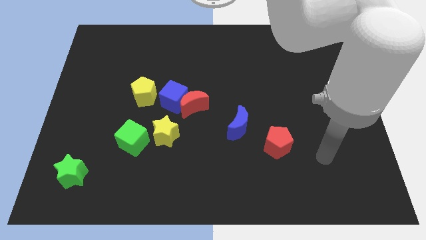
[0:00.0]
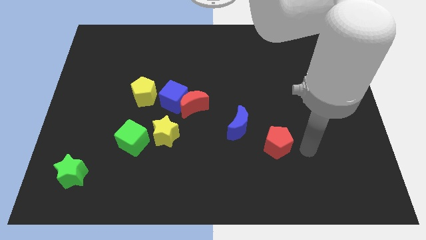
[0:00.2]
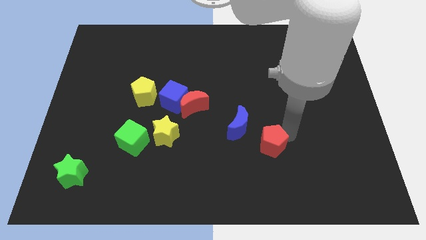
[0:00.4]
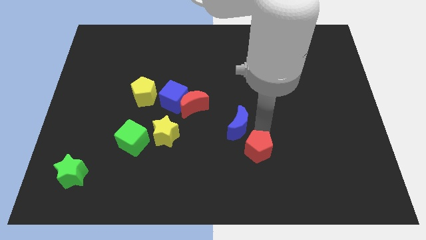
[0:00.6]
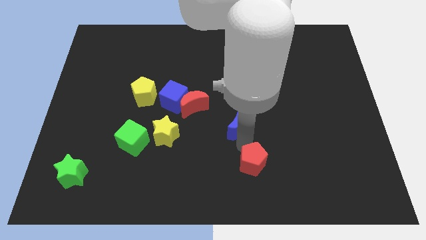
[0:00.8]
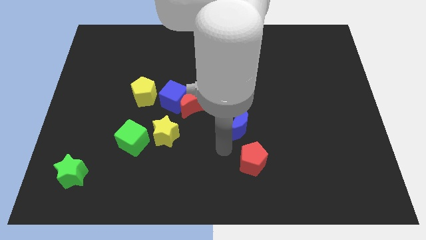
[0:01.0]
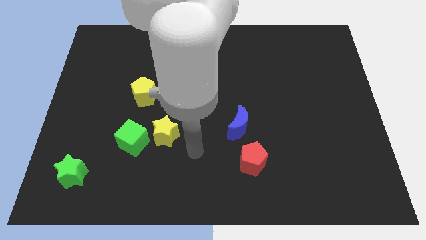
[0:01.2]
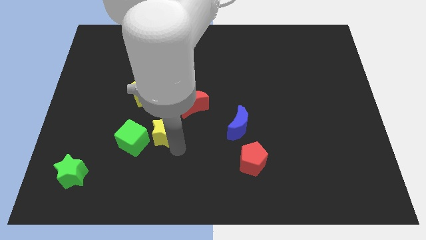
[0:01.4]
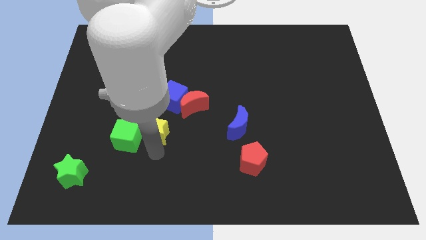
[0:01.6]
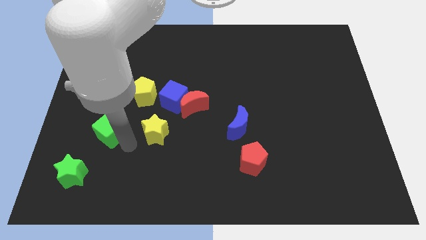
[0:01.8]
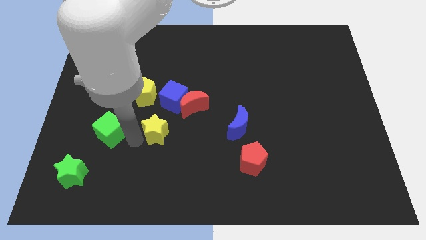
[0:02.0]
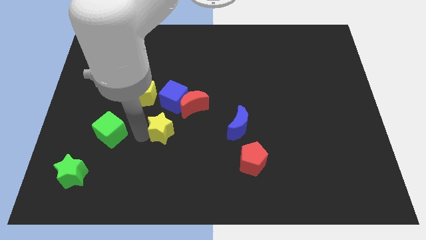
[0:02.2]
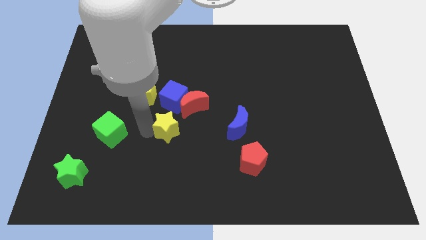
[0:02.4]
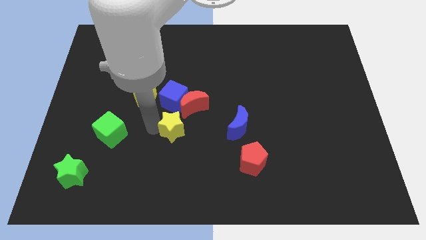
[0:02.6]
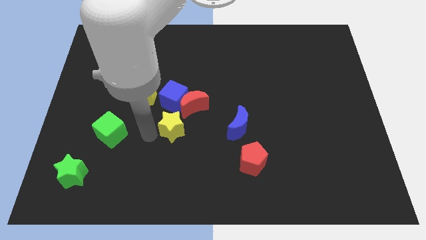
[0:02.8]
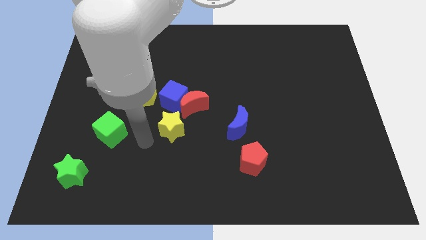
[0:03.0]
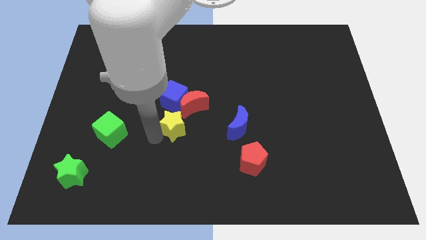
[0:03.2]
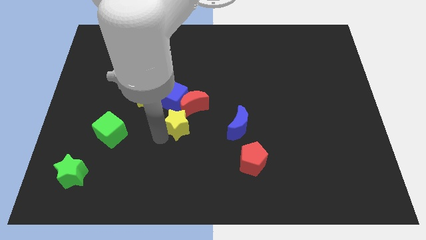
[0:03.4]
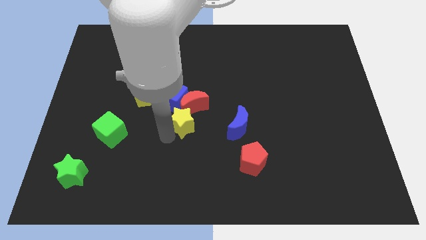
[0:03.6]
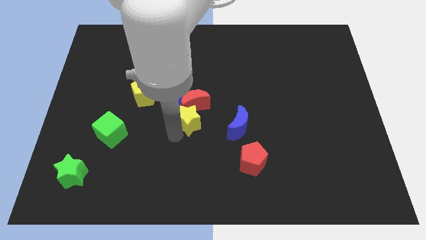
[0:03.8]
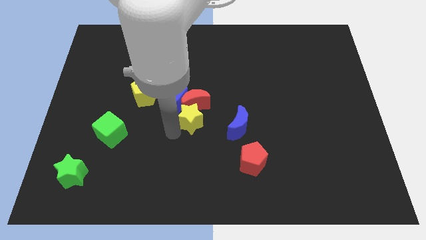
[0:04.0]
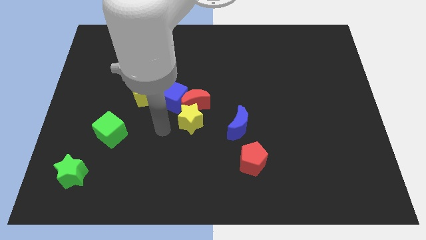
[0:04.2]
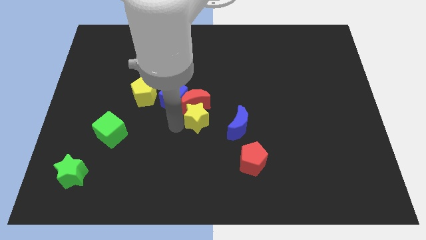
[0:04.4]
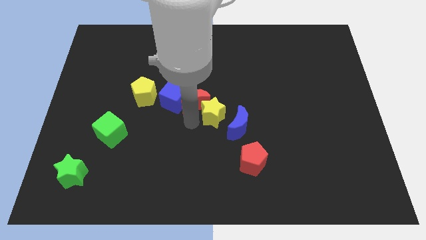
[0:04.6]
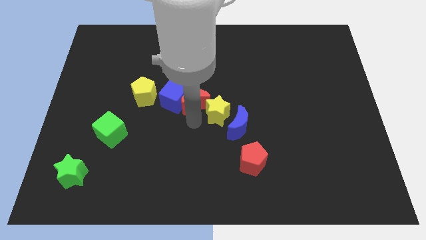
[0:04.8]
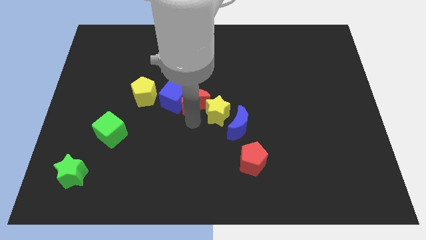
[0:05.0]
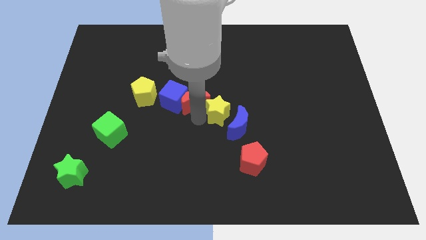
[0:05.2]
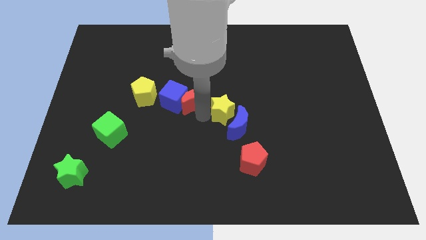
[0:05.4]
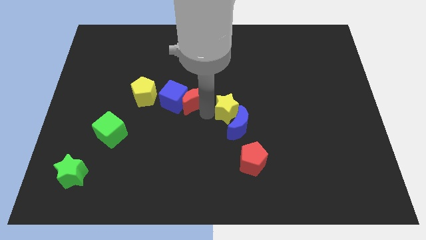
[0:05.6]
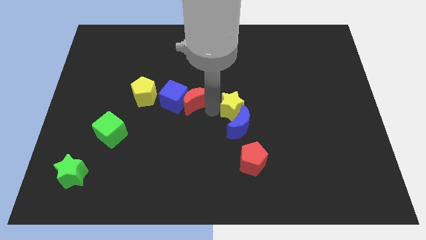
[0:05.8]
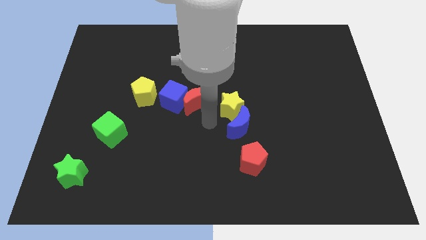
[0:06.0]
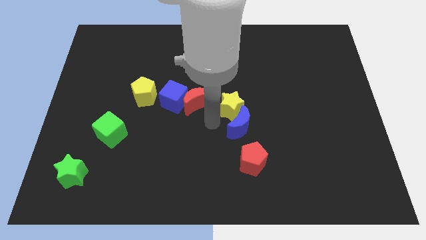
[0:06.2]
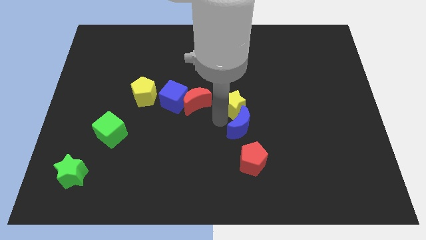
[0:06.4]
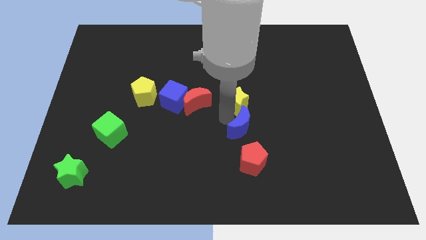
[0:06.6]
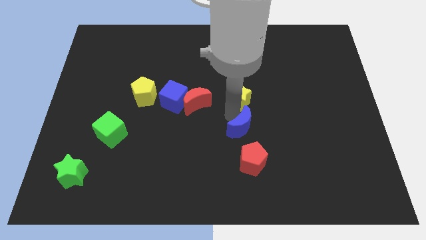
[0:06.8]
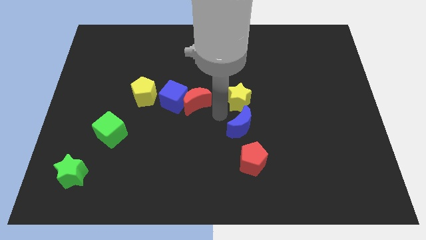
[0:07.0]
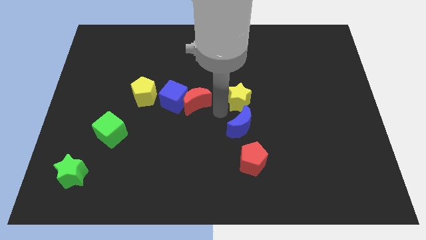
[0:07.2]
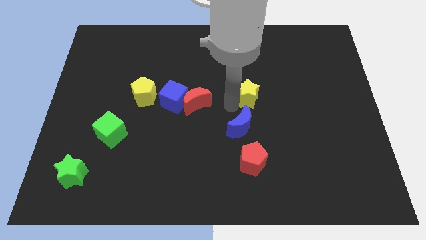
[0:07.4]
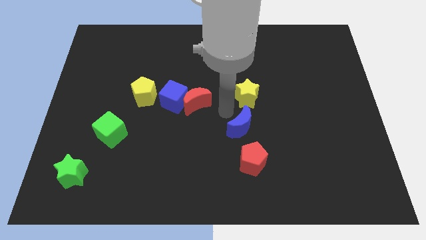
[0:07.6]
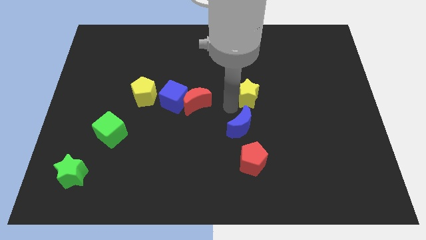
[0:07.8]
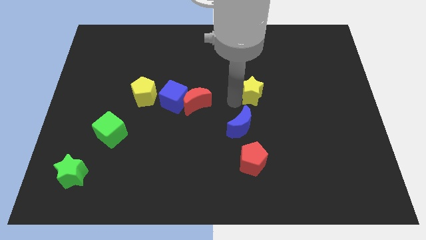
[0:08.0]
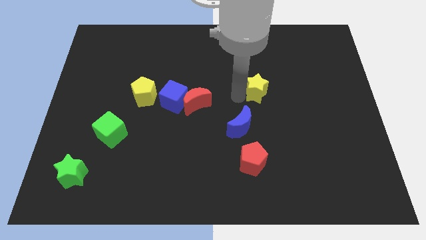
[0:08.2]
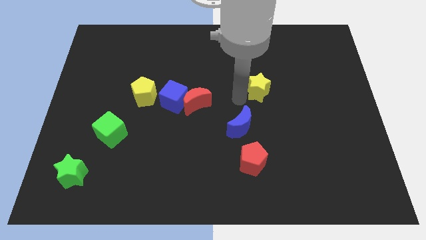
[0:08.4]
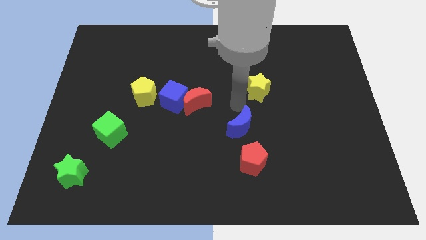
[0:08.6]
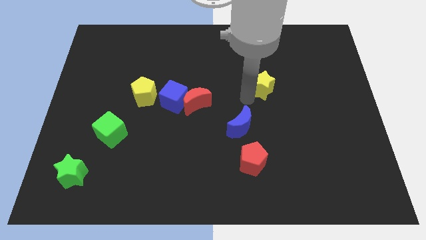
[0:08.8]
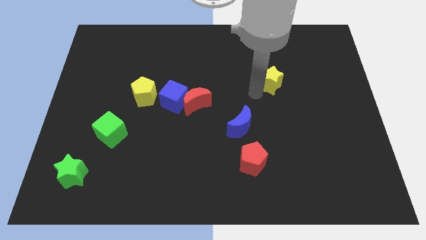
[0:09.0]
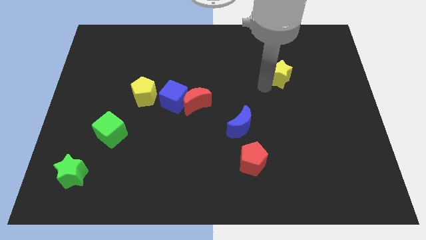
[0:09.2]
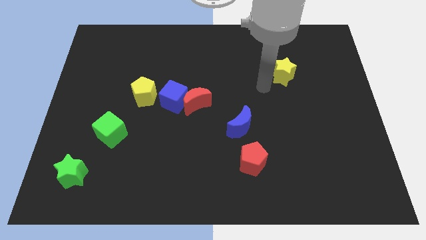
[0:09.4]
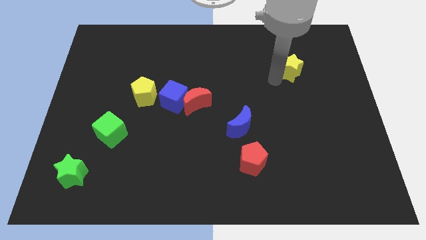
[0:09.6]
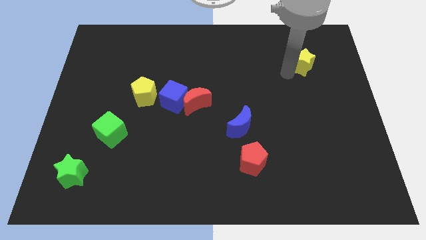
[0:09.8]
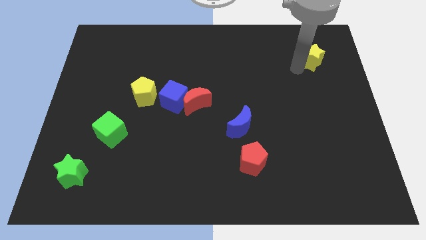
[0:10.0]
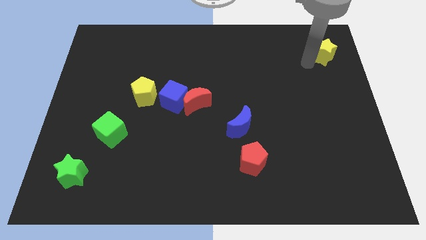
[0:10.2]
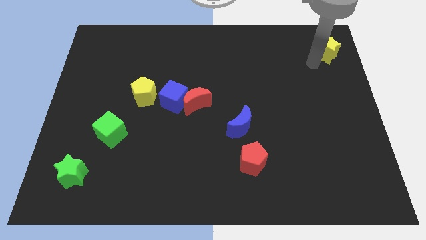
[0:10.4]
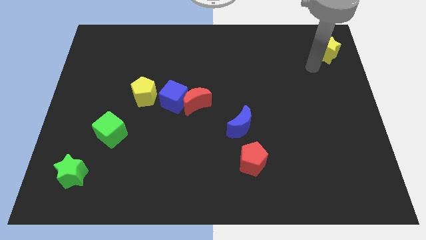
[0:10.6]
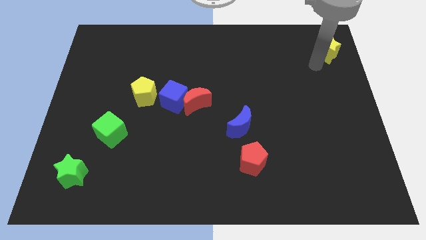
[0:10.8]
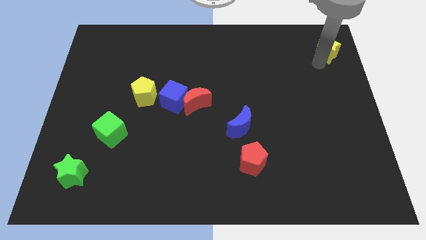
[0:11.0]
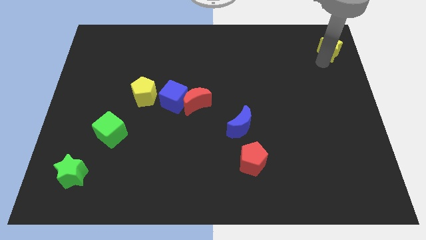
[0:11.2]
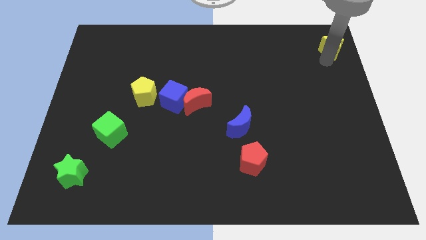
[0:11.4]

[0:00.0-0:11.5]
move the yellow star to the top right corner
